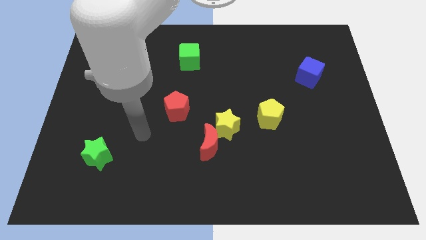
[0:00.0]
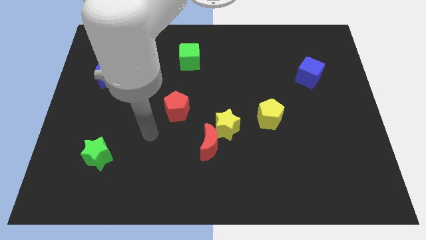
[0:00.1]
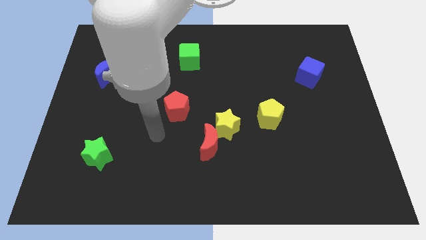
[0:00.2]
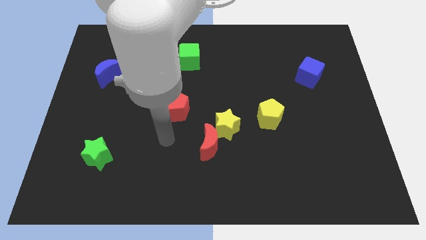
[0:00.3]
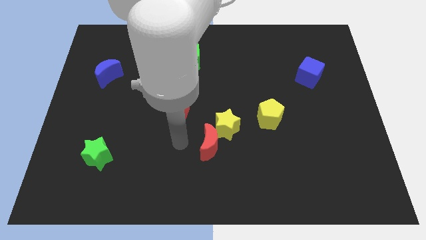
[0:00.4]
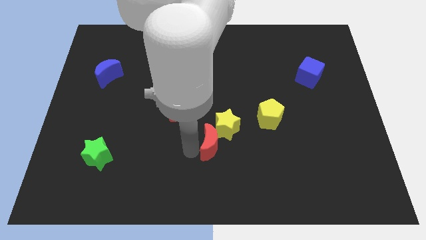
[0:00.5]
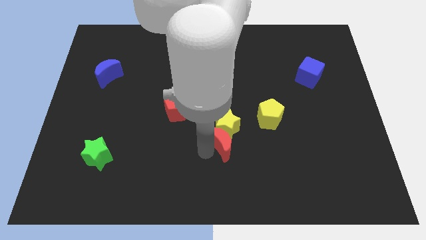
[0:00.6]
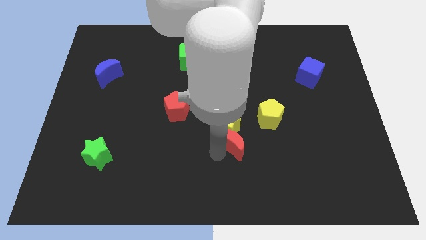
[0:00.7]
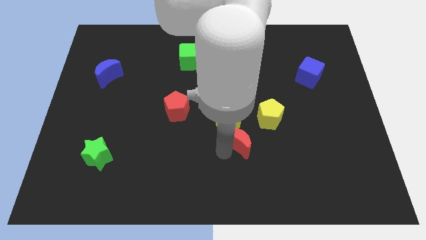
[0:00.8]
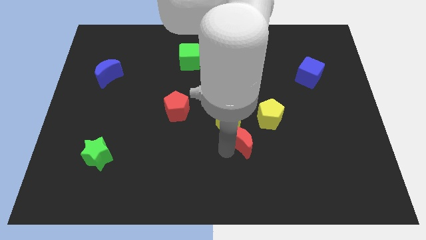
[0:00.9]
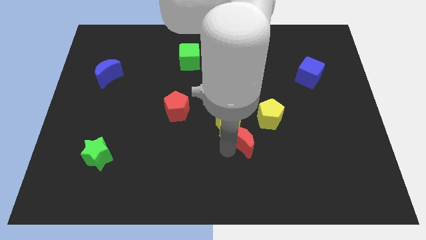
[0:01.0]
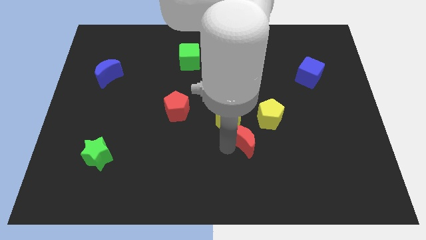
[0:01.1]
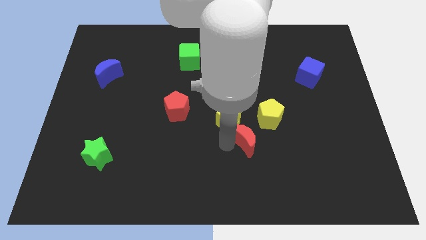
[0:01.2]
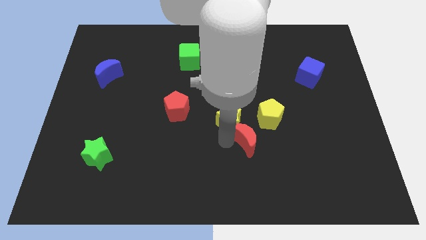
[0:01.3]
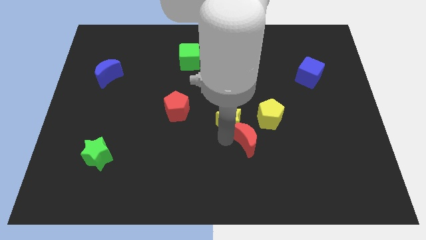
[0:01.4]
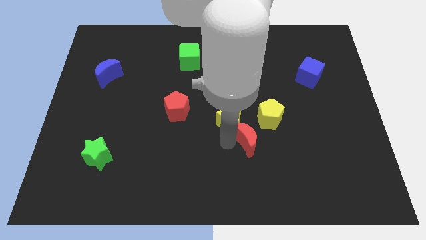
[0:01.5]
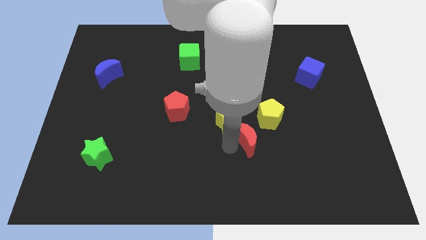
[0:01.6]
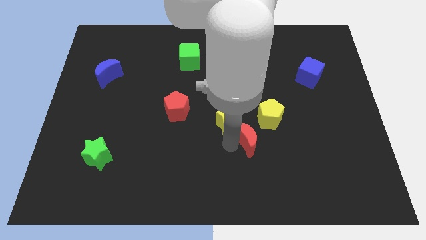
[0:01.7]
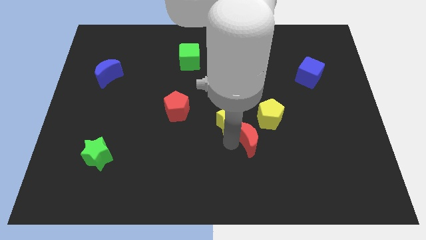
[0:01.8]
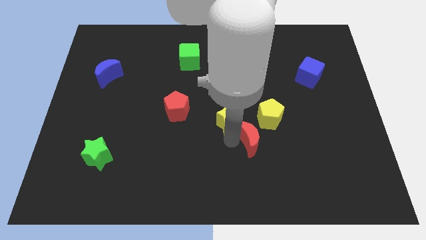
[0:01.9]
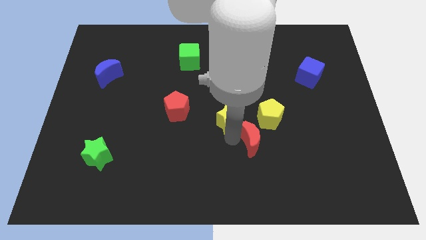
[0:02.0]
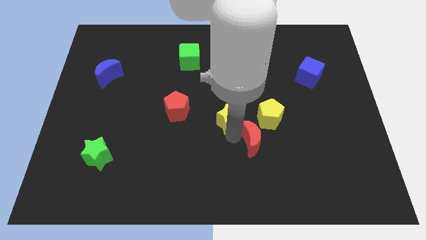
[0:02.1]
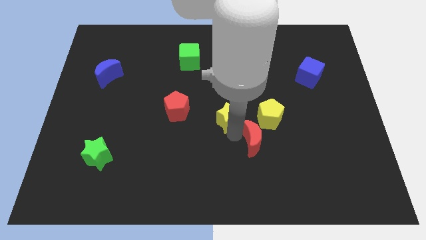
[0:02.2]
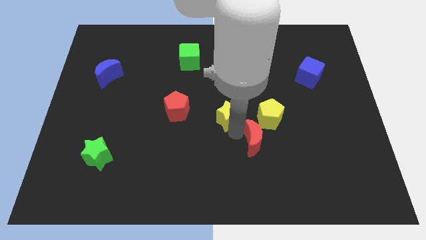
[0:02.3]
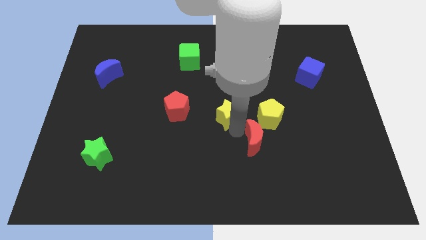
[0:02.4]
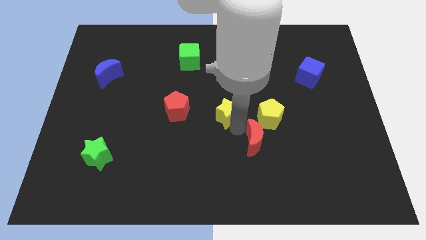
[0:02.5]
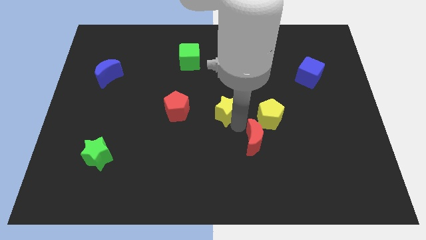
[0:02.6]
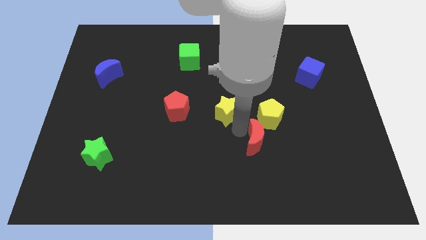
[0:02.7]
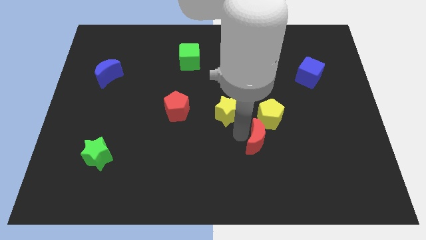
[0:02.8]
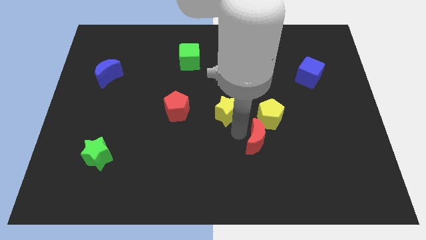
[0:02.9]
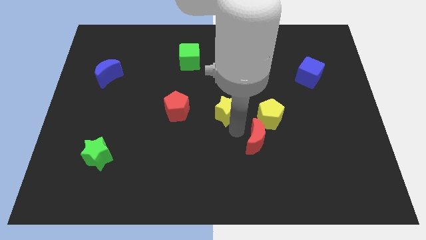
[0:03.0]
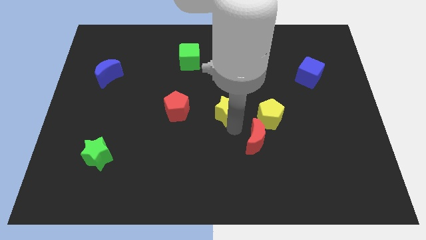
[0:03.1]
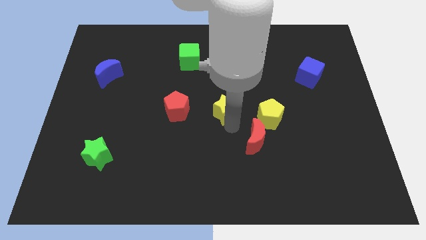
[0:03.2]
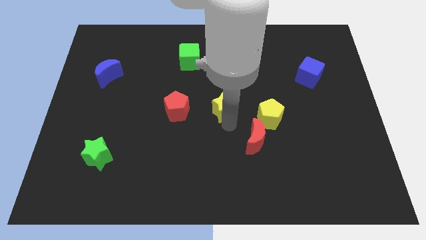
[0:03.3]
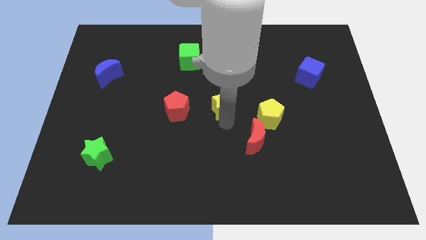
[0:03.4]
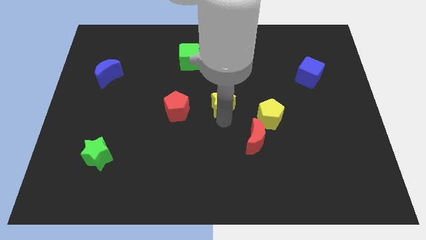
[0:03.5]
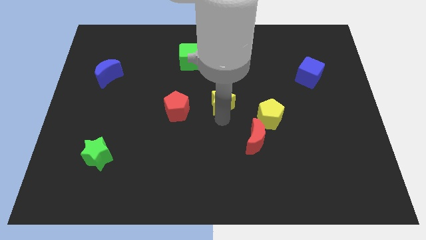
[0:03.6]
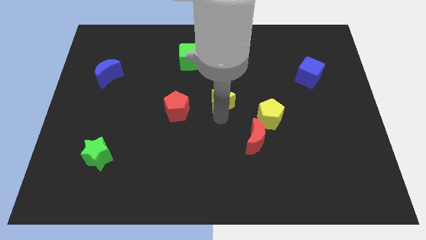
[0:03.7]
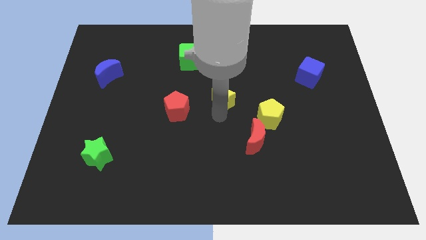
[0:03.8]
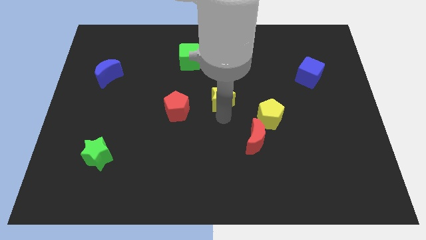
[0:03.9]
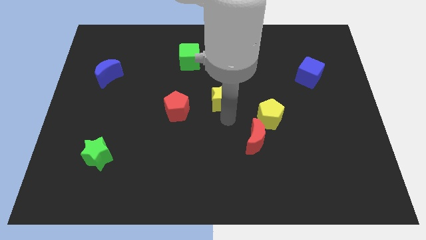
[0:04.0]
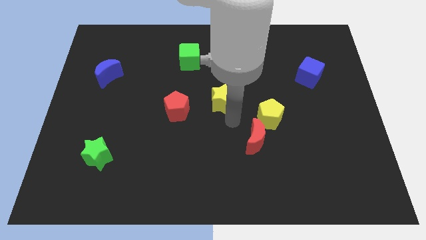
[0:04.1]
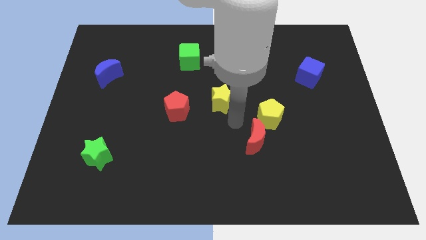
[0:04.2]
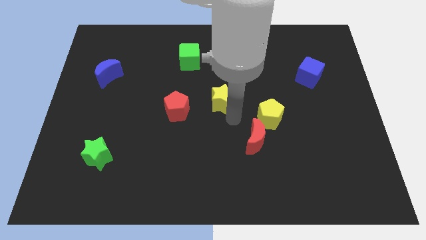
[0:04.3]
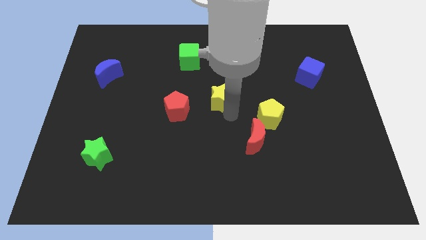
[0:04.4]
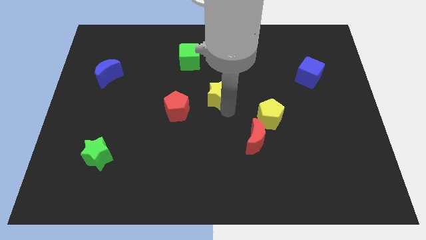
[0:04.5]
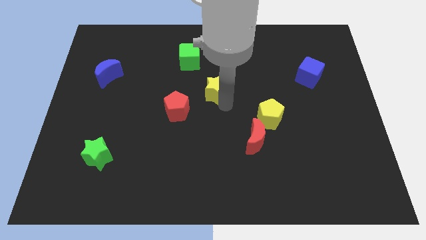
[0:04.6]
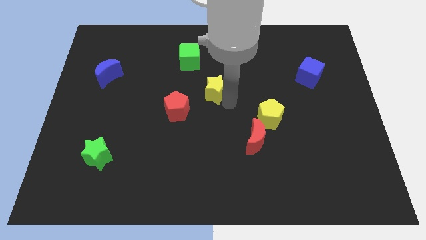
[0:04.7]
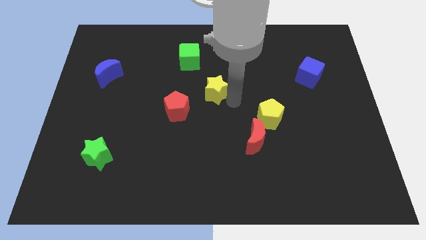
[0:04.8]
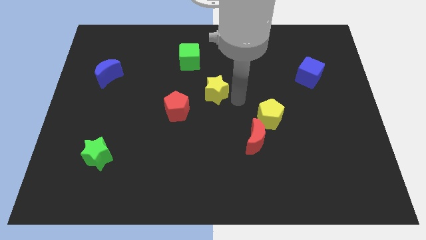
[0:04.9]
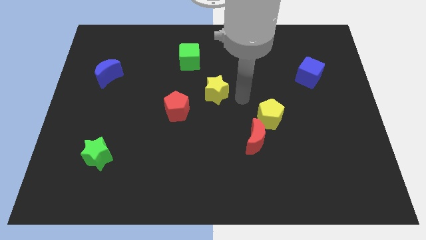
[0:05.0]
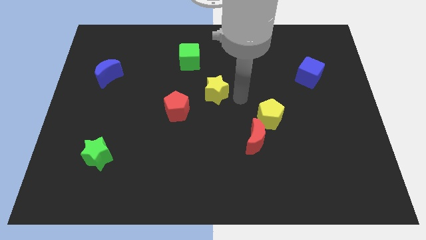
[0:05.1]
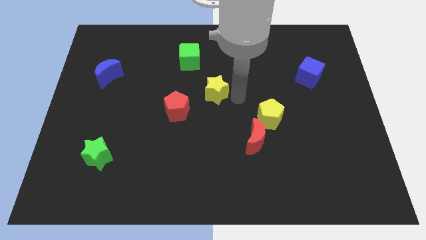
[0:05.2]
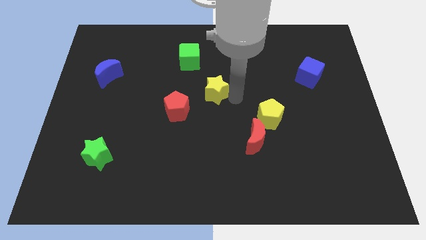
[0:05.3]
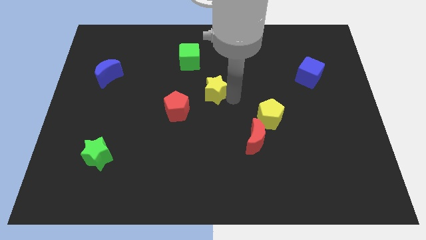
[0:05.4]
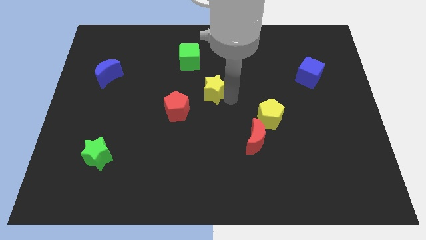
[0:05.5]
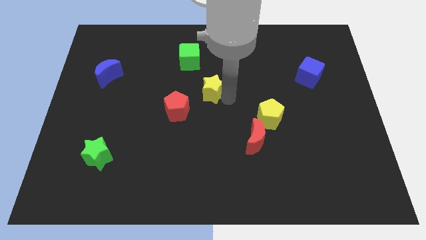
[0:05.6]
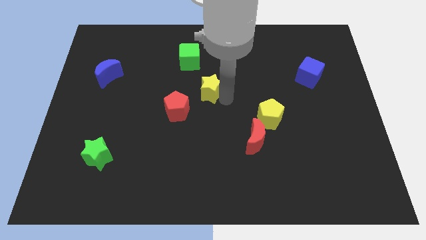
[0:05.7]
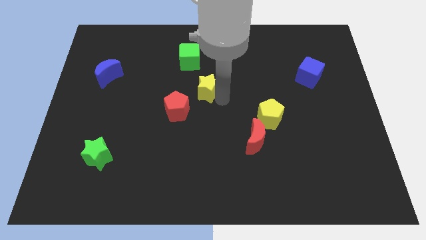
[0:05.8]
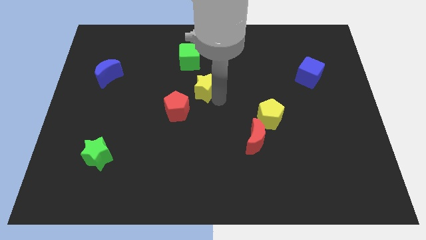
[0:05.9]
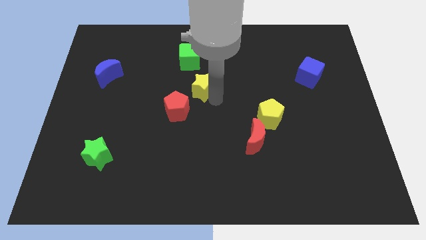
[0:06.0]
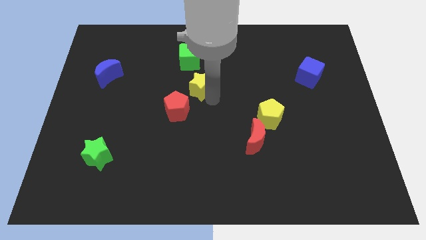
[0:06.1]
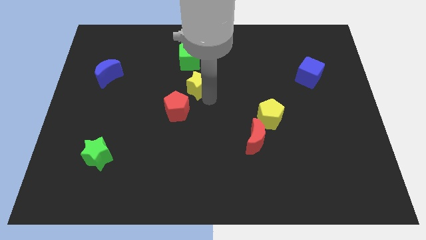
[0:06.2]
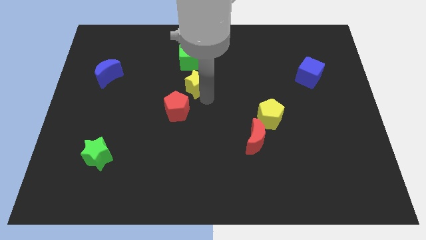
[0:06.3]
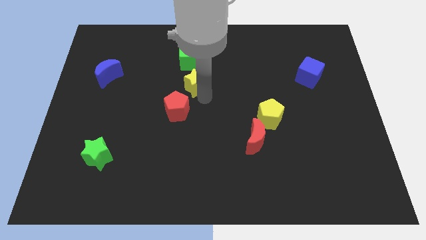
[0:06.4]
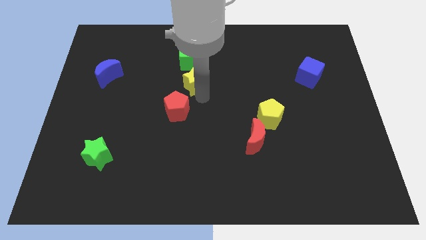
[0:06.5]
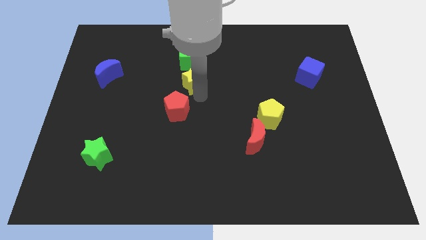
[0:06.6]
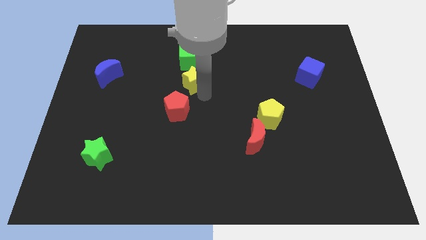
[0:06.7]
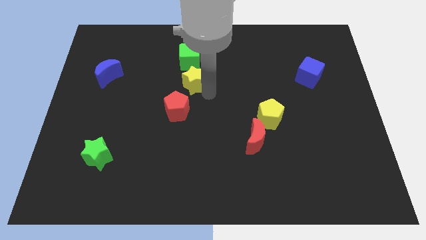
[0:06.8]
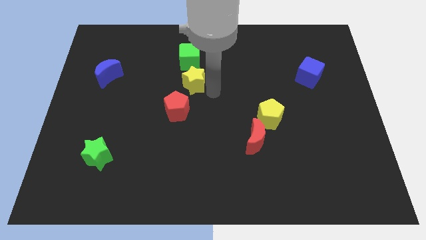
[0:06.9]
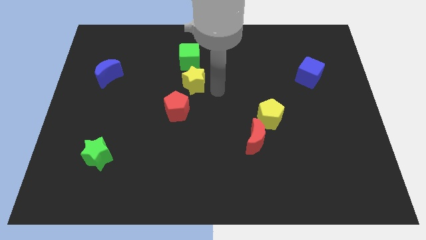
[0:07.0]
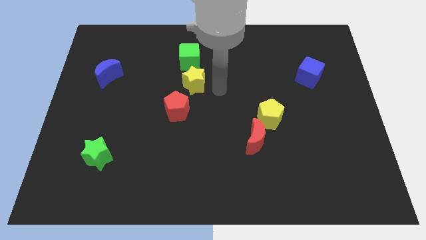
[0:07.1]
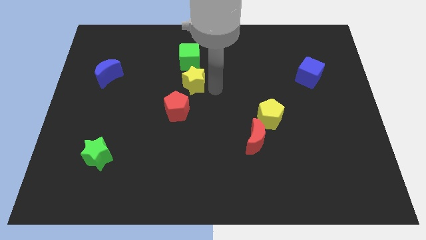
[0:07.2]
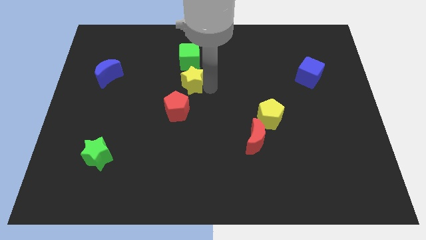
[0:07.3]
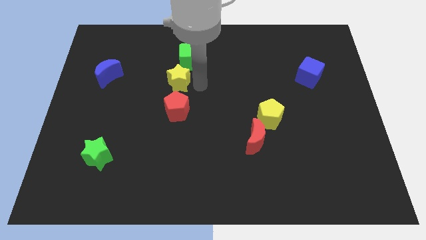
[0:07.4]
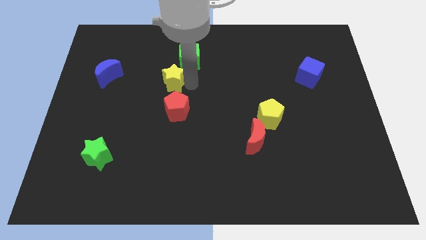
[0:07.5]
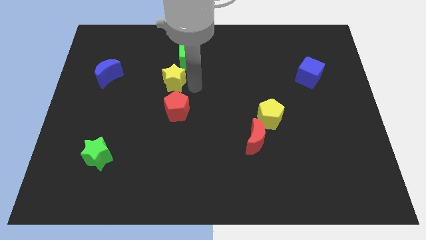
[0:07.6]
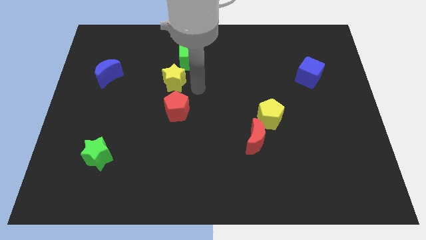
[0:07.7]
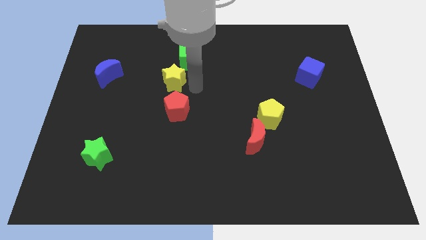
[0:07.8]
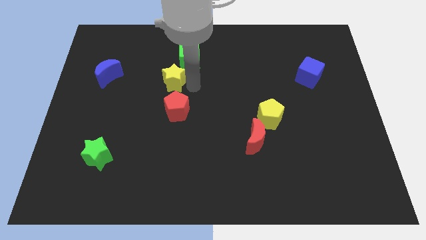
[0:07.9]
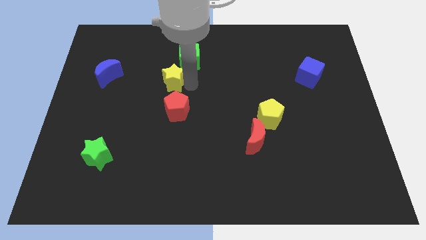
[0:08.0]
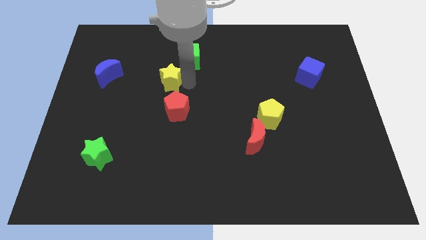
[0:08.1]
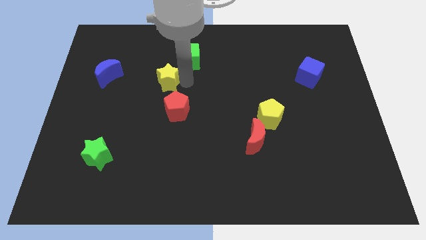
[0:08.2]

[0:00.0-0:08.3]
put the yellow star to the right of the blue moon
